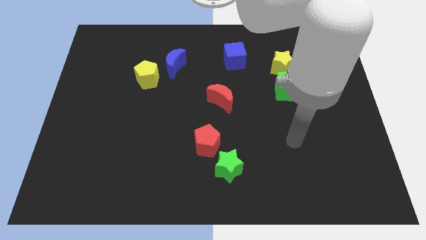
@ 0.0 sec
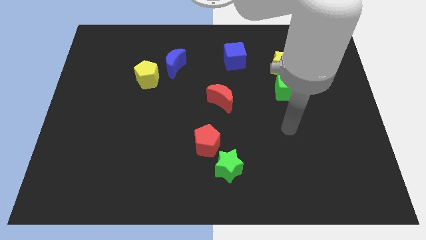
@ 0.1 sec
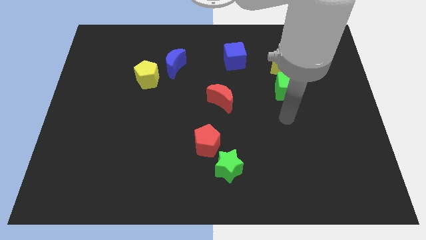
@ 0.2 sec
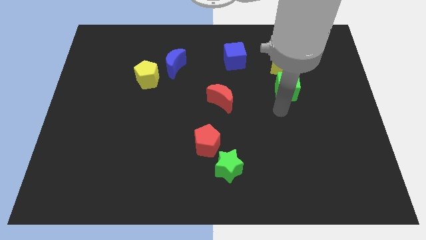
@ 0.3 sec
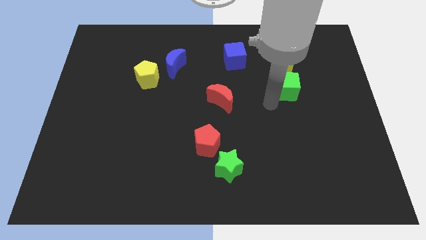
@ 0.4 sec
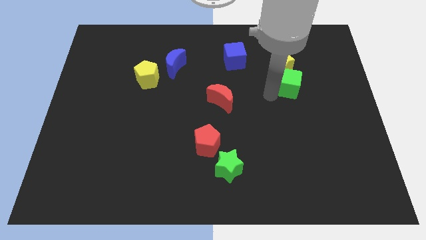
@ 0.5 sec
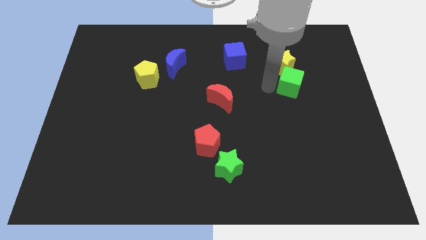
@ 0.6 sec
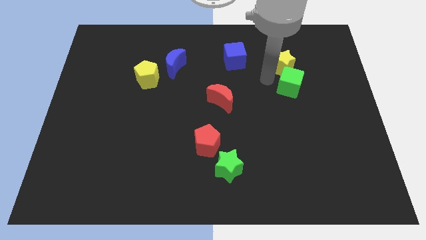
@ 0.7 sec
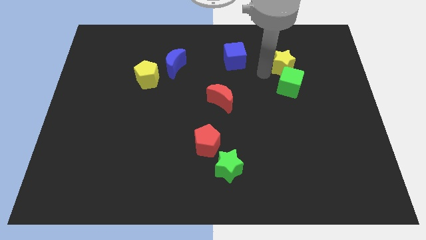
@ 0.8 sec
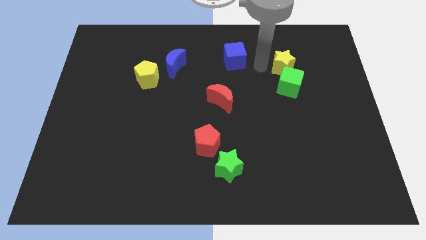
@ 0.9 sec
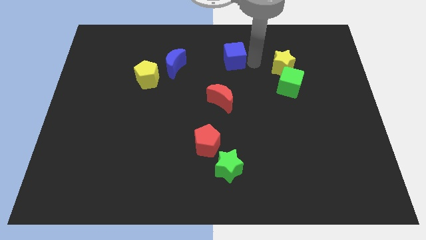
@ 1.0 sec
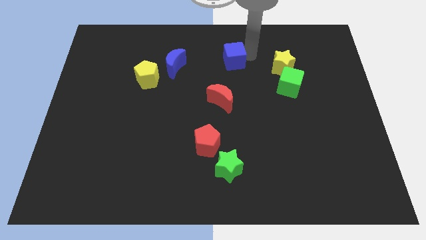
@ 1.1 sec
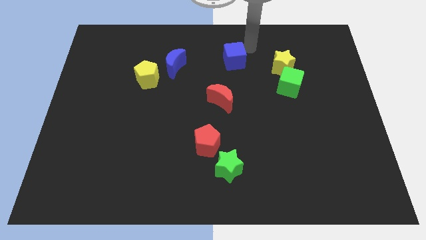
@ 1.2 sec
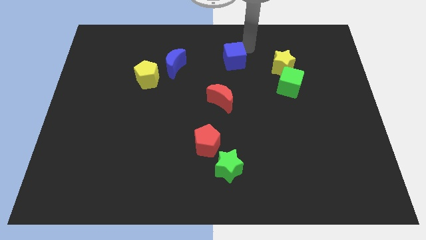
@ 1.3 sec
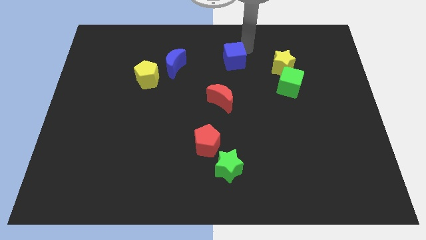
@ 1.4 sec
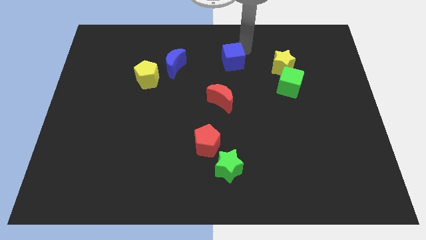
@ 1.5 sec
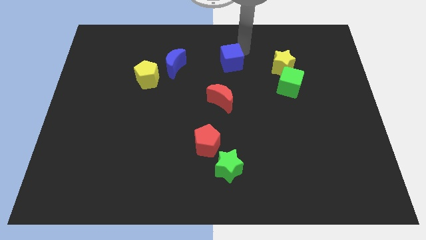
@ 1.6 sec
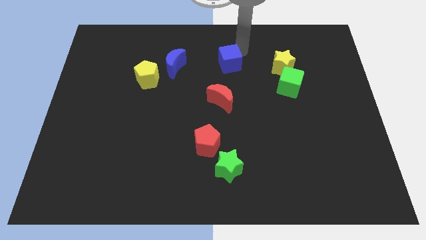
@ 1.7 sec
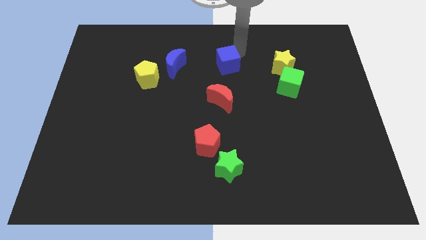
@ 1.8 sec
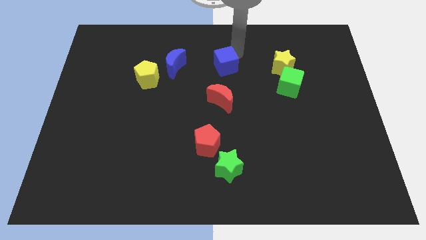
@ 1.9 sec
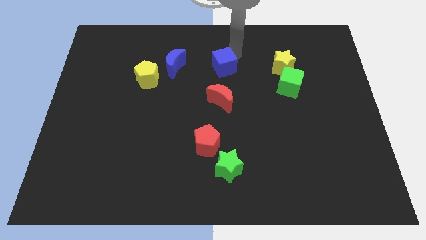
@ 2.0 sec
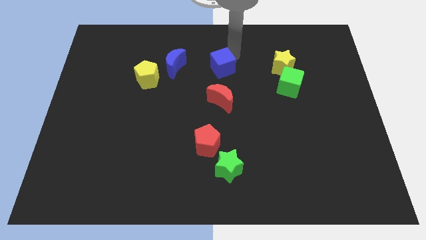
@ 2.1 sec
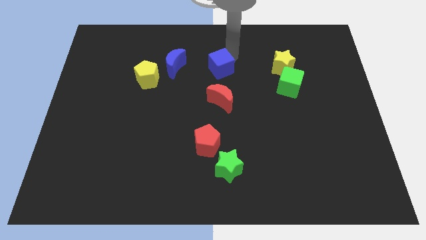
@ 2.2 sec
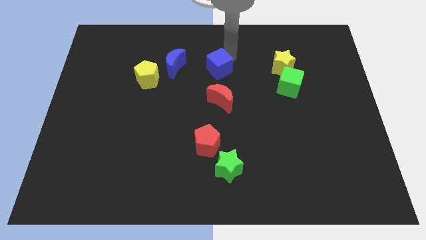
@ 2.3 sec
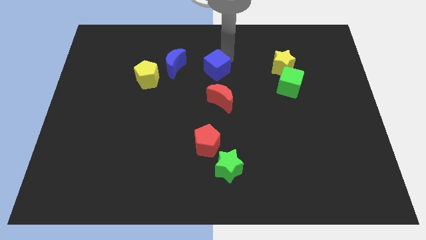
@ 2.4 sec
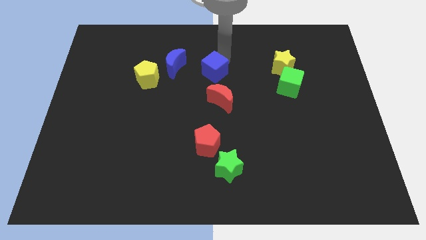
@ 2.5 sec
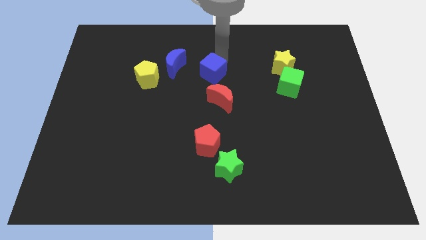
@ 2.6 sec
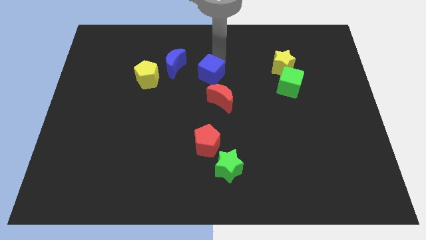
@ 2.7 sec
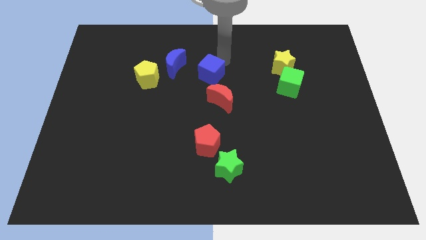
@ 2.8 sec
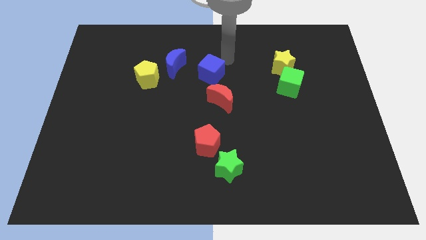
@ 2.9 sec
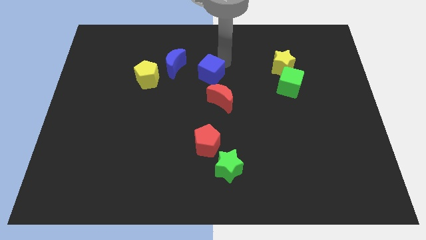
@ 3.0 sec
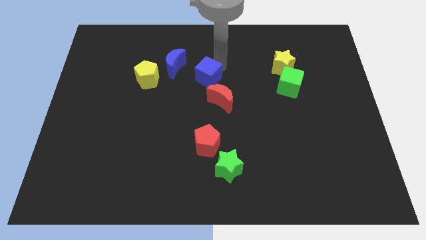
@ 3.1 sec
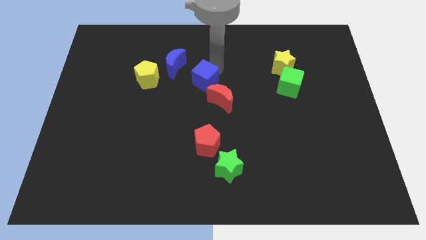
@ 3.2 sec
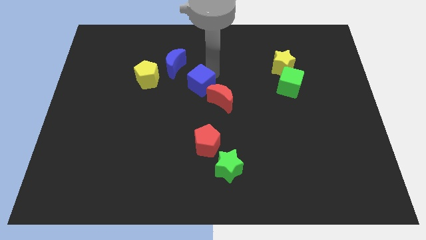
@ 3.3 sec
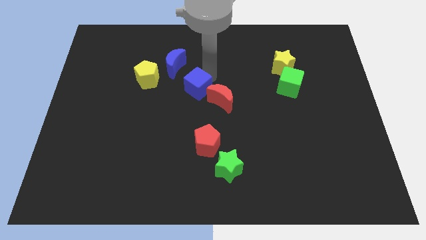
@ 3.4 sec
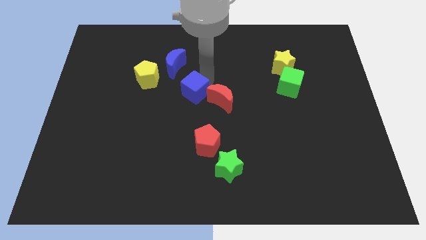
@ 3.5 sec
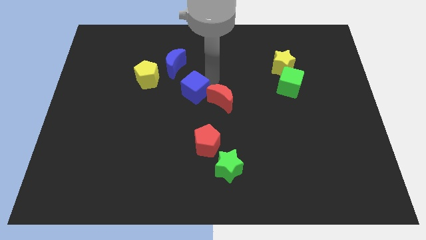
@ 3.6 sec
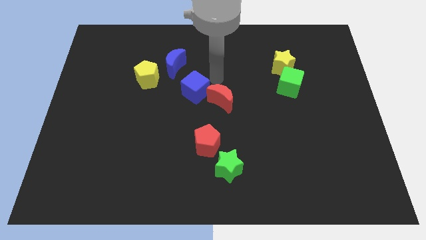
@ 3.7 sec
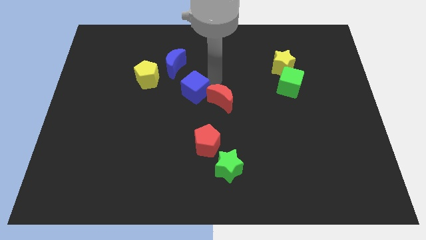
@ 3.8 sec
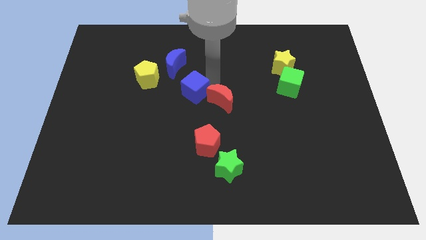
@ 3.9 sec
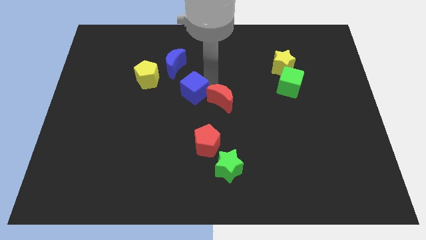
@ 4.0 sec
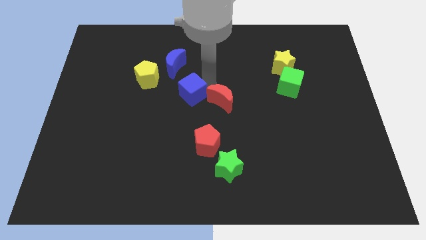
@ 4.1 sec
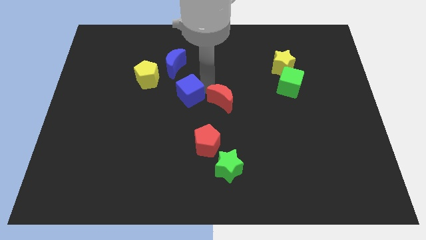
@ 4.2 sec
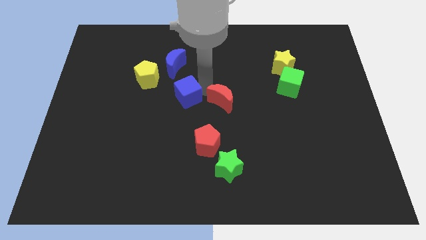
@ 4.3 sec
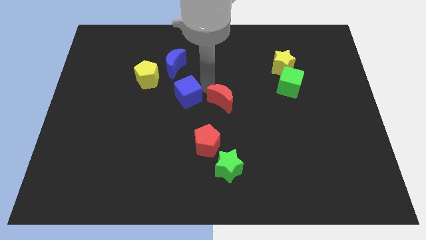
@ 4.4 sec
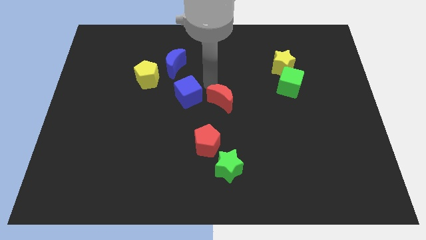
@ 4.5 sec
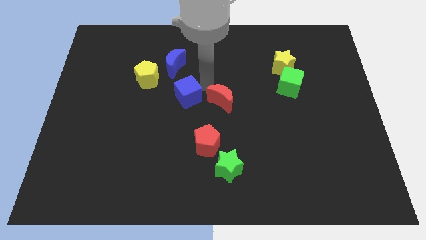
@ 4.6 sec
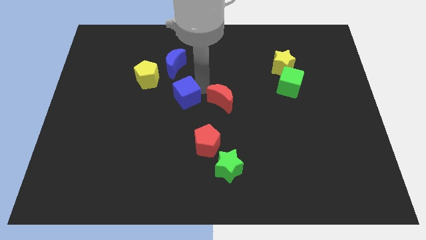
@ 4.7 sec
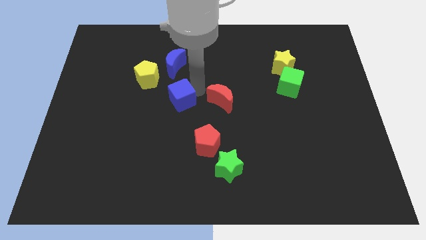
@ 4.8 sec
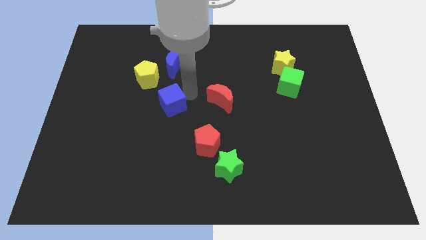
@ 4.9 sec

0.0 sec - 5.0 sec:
push the blue cube down and to the left

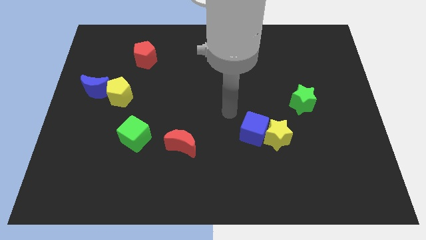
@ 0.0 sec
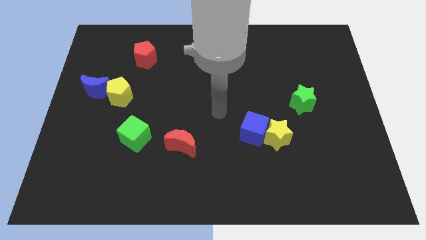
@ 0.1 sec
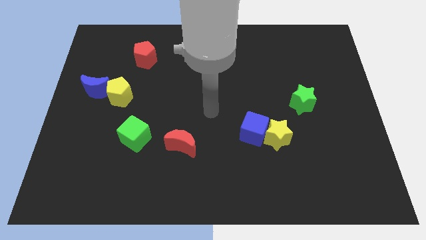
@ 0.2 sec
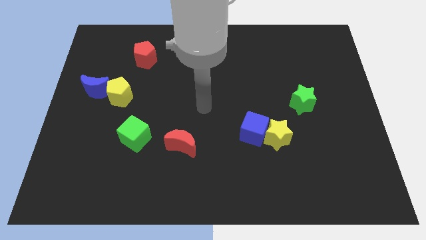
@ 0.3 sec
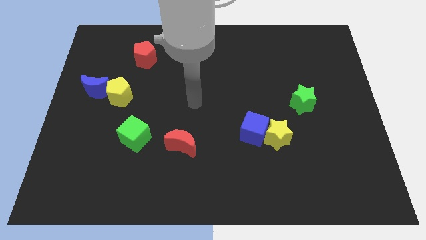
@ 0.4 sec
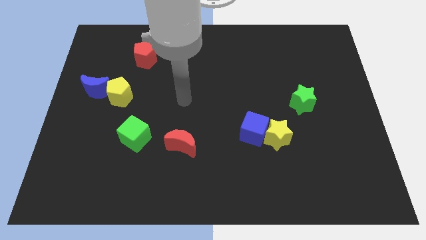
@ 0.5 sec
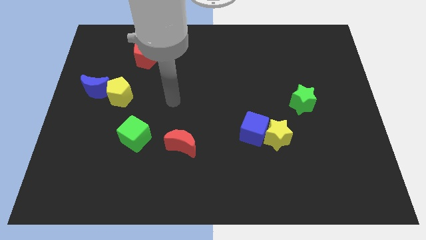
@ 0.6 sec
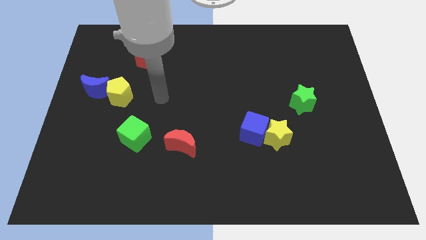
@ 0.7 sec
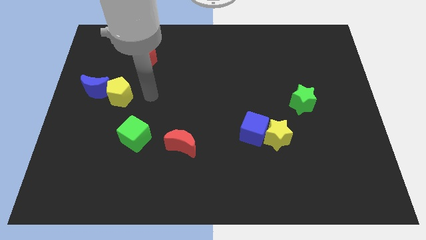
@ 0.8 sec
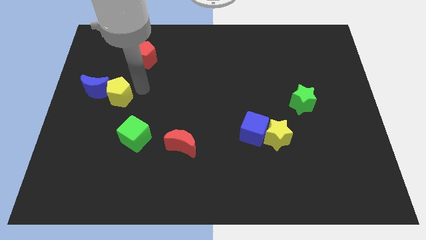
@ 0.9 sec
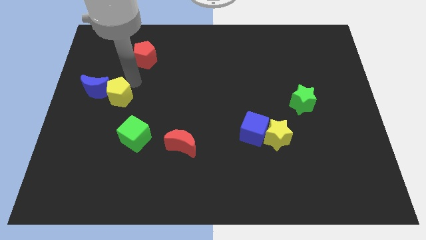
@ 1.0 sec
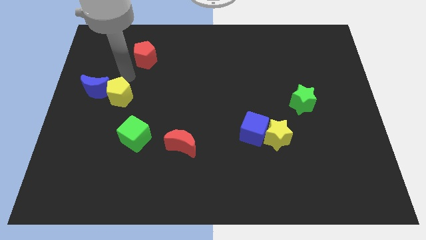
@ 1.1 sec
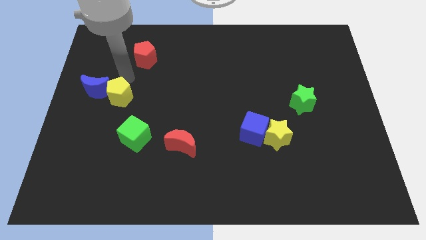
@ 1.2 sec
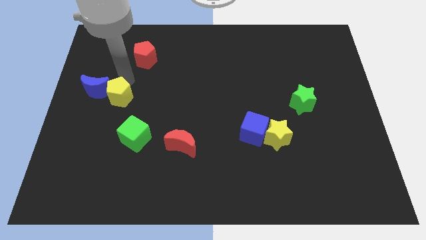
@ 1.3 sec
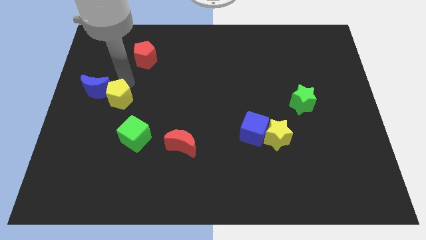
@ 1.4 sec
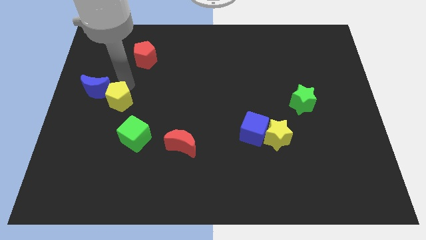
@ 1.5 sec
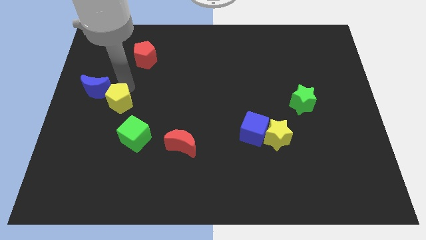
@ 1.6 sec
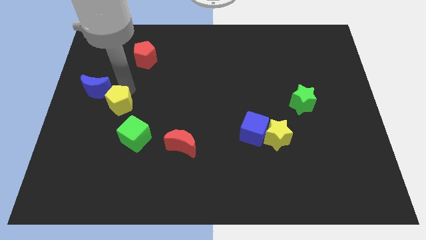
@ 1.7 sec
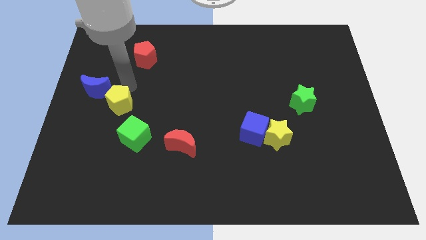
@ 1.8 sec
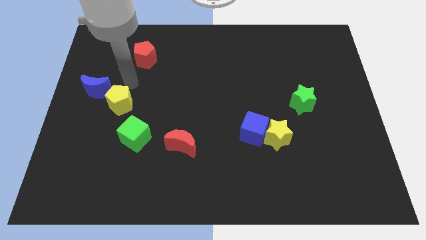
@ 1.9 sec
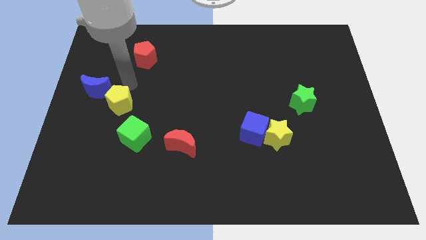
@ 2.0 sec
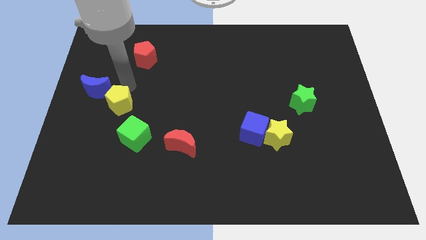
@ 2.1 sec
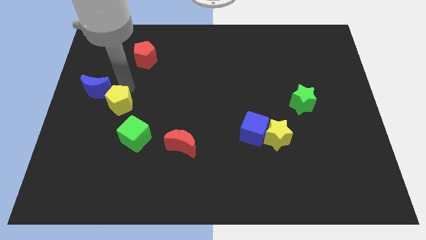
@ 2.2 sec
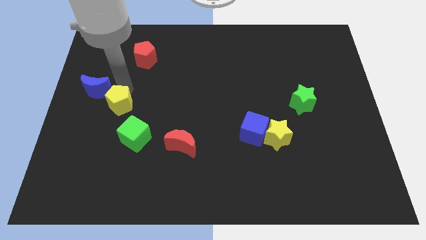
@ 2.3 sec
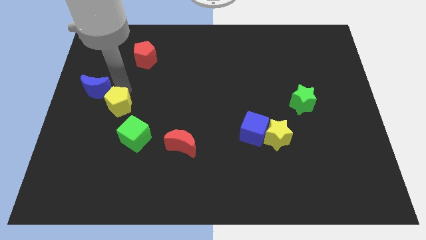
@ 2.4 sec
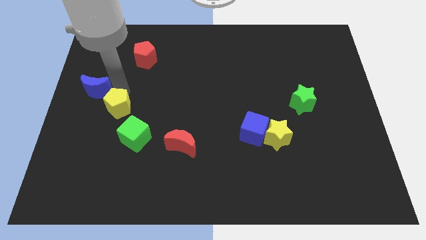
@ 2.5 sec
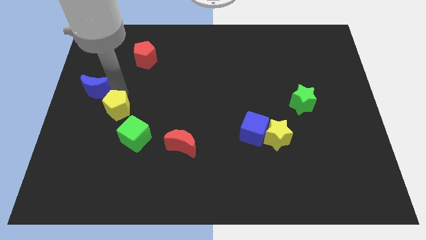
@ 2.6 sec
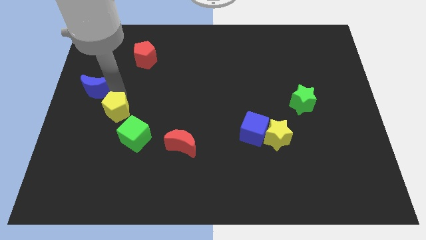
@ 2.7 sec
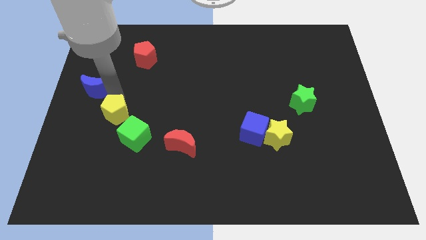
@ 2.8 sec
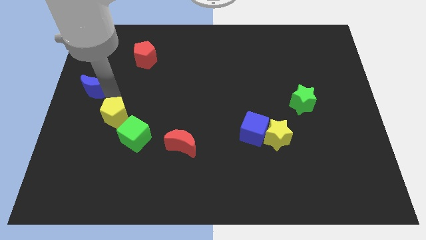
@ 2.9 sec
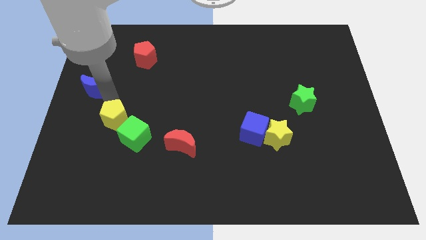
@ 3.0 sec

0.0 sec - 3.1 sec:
slightly push the yellow pentagon down

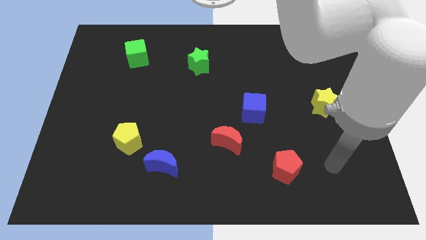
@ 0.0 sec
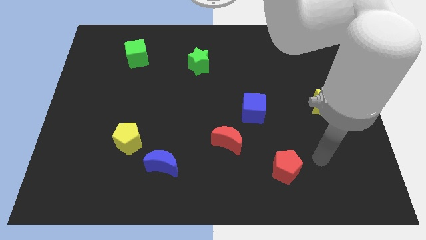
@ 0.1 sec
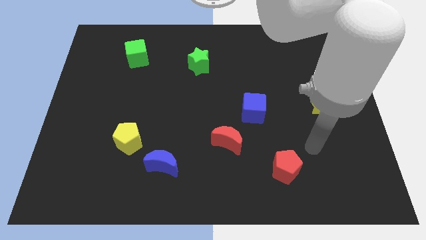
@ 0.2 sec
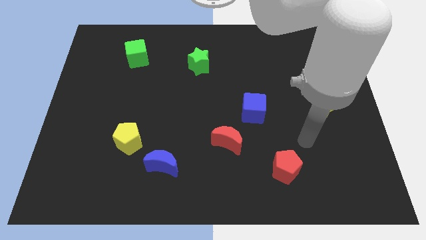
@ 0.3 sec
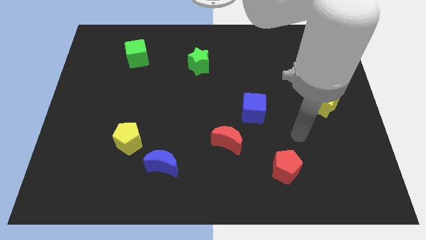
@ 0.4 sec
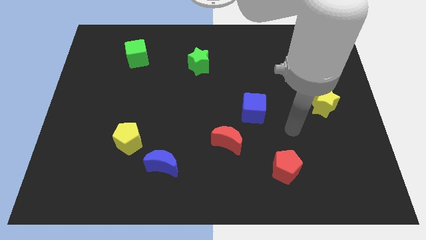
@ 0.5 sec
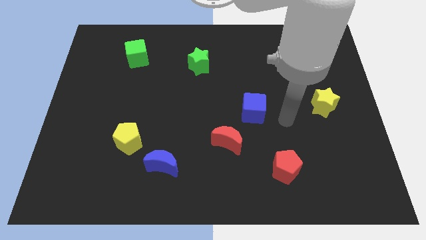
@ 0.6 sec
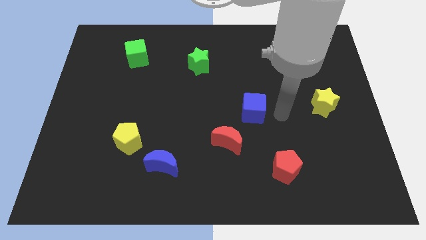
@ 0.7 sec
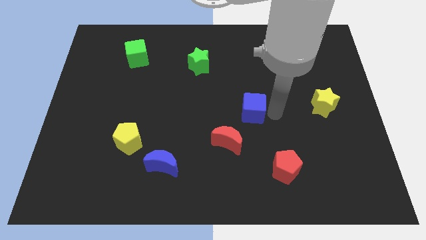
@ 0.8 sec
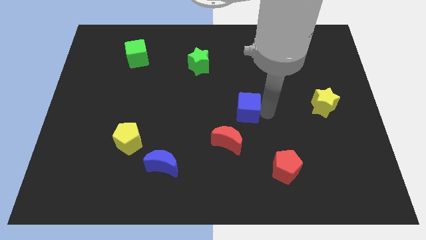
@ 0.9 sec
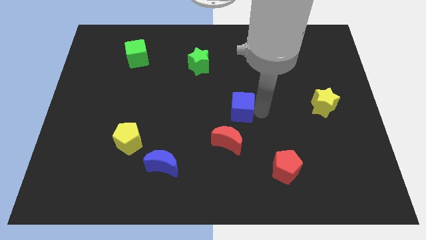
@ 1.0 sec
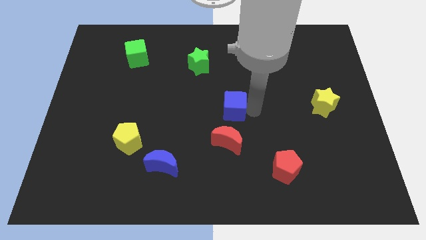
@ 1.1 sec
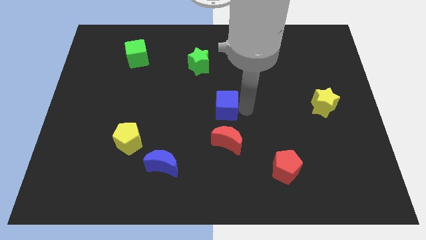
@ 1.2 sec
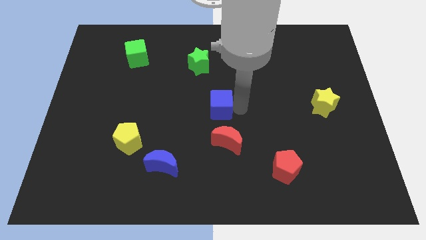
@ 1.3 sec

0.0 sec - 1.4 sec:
slightly slide the blue cube to the left
